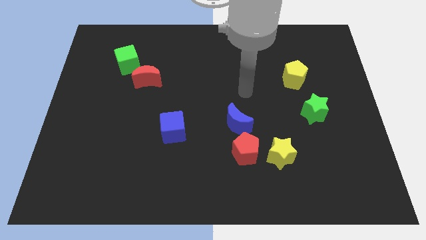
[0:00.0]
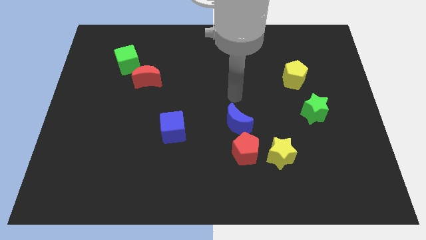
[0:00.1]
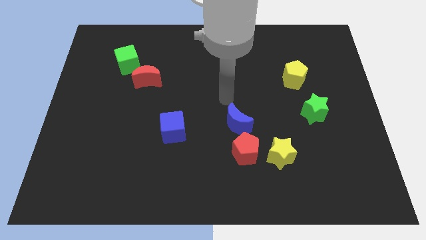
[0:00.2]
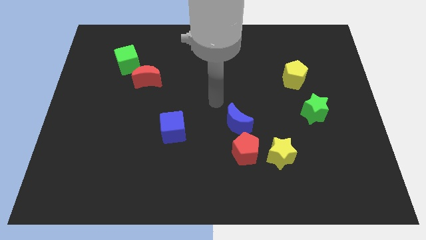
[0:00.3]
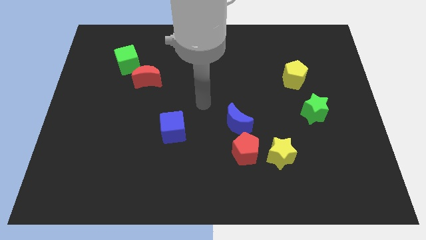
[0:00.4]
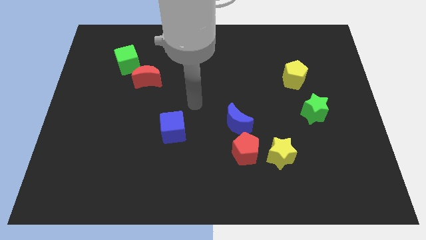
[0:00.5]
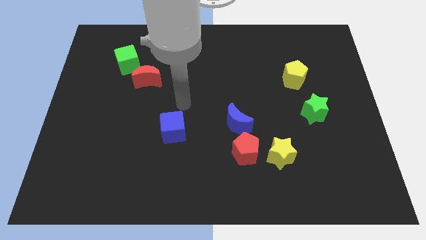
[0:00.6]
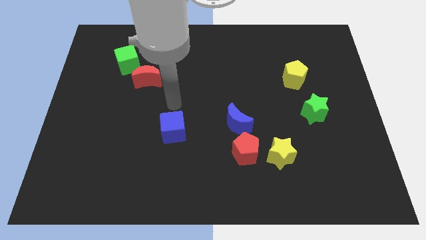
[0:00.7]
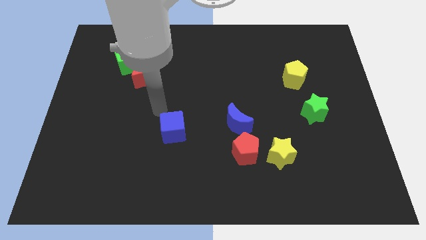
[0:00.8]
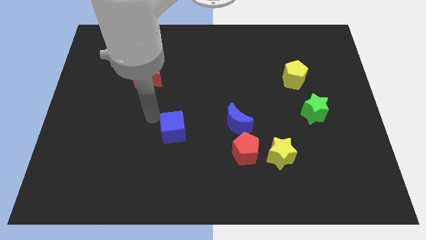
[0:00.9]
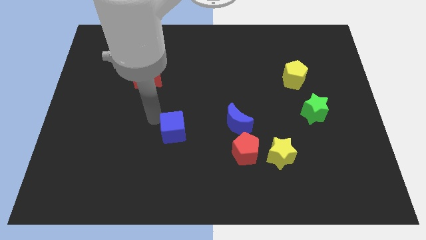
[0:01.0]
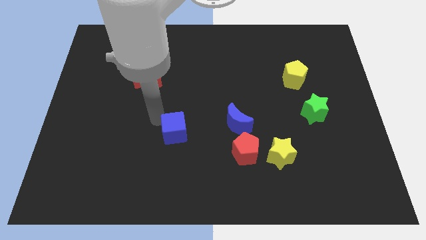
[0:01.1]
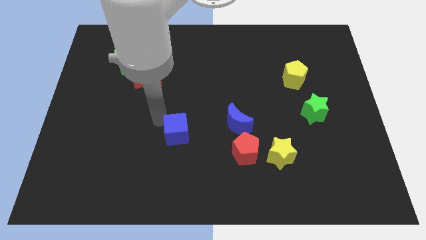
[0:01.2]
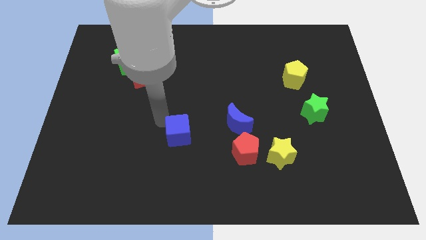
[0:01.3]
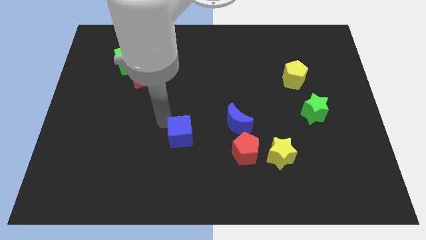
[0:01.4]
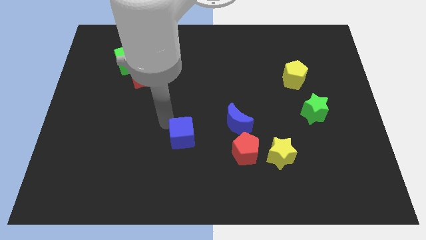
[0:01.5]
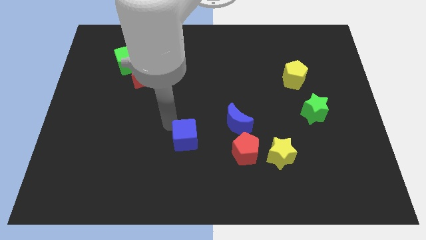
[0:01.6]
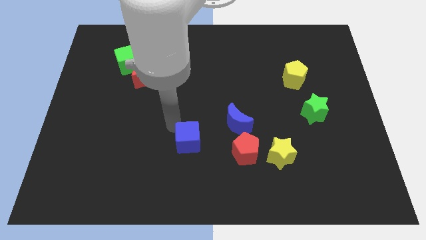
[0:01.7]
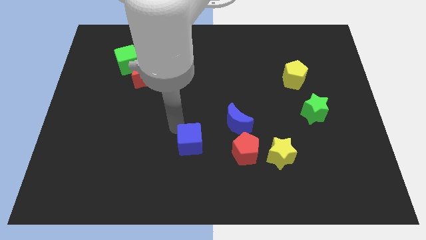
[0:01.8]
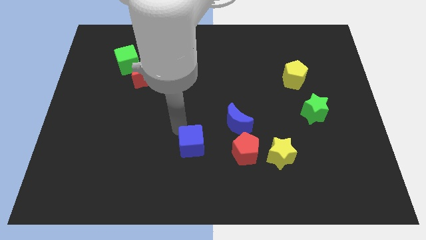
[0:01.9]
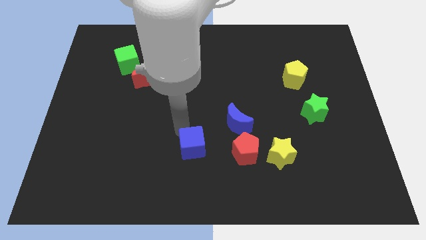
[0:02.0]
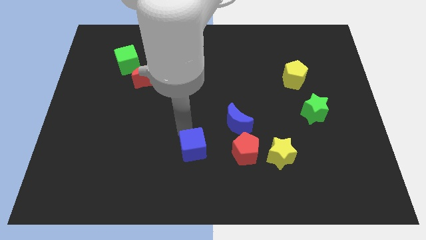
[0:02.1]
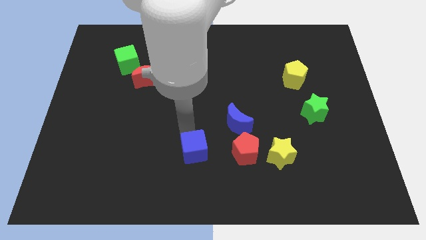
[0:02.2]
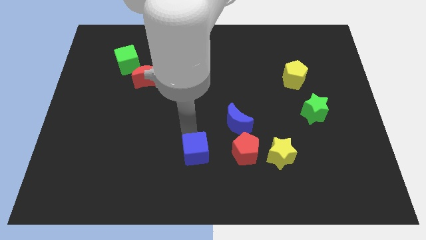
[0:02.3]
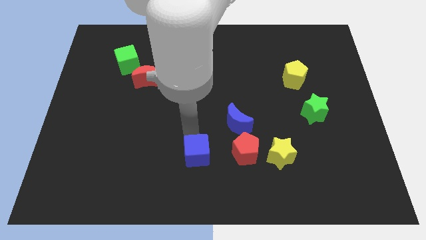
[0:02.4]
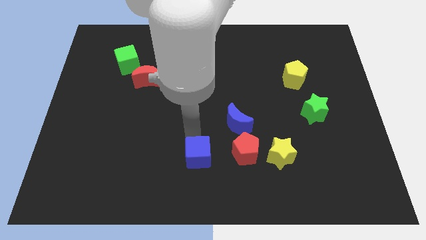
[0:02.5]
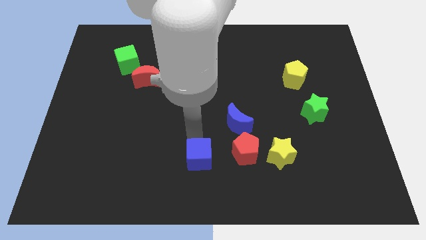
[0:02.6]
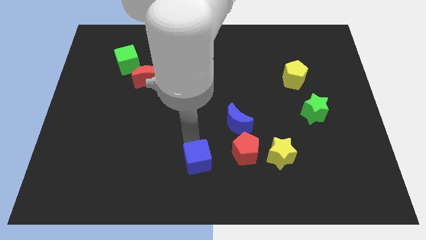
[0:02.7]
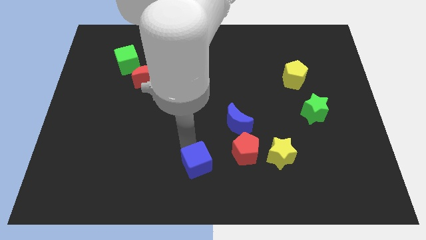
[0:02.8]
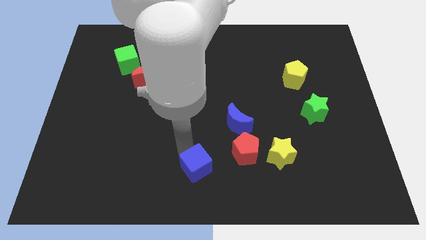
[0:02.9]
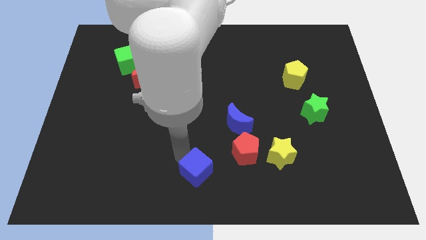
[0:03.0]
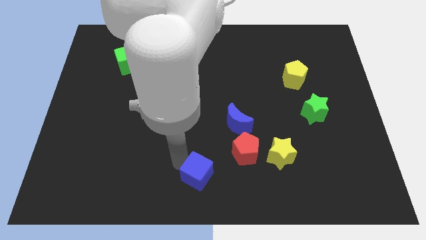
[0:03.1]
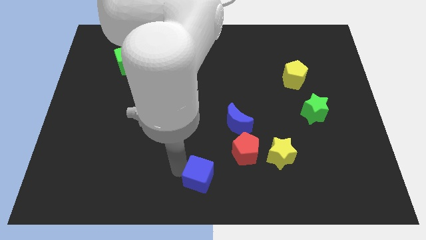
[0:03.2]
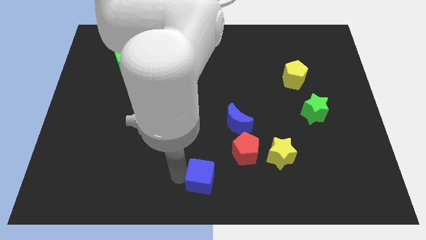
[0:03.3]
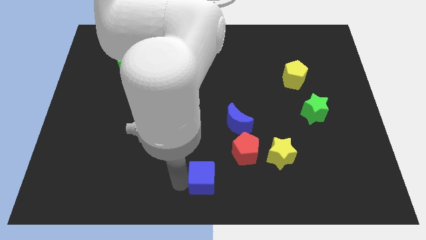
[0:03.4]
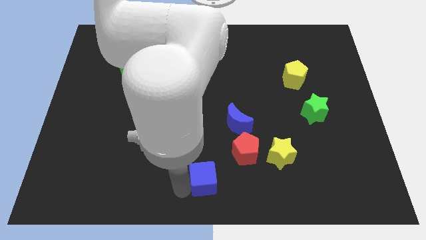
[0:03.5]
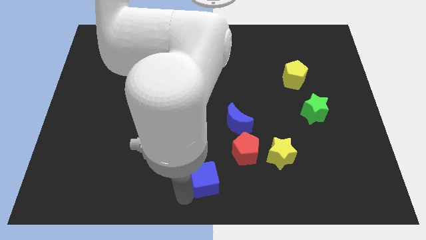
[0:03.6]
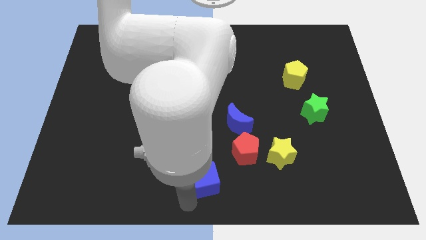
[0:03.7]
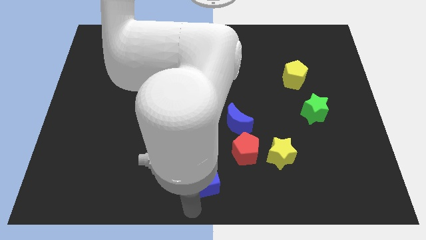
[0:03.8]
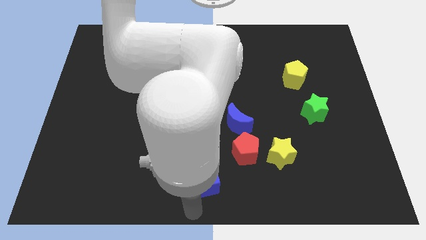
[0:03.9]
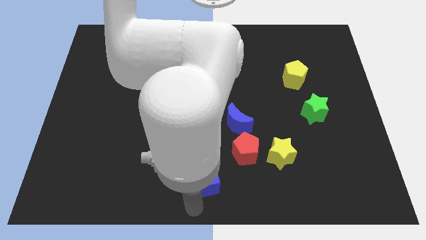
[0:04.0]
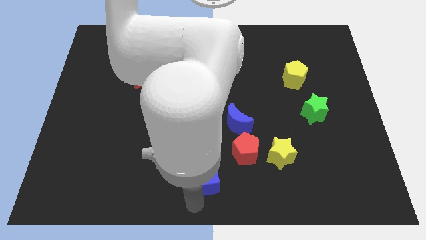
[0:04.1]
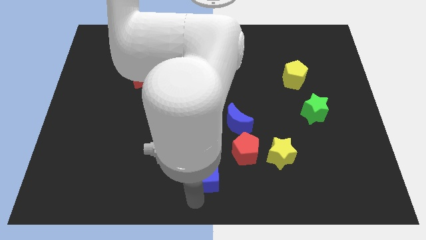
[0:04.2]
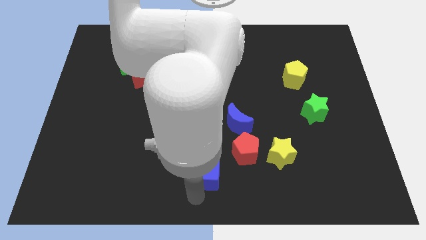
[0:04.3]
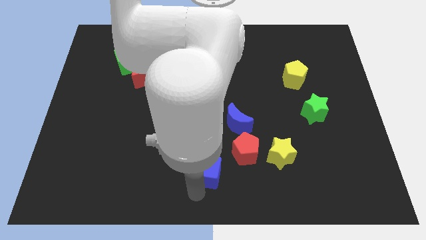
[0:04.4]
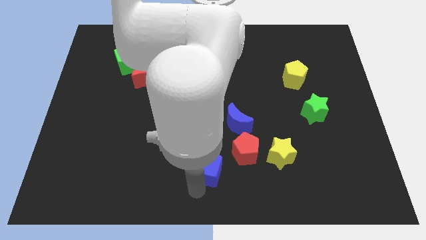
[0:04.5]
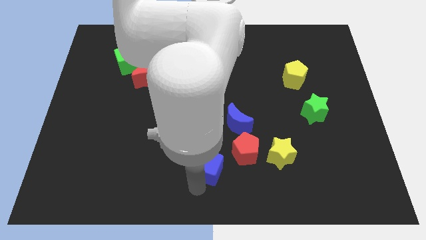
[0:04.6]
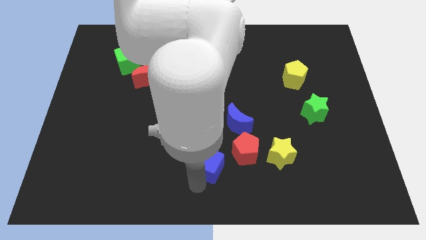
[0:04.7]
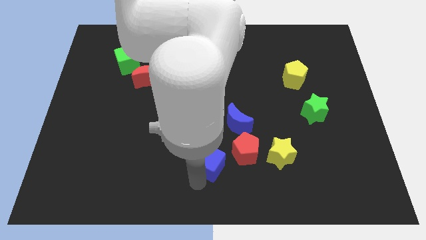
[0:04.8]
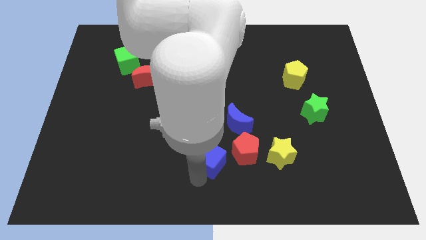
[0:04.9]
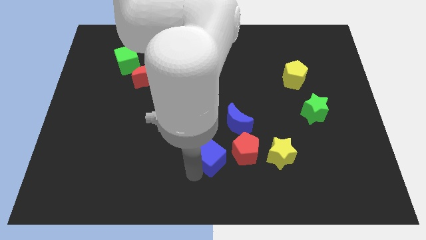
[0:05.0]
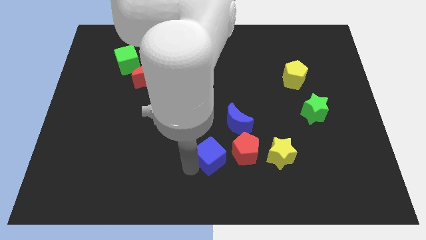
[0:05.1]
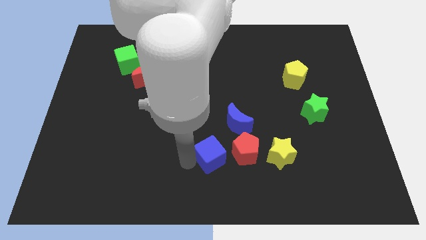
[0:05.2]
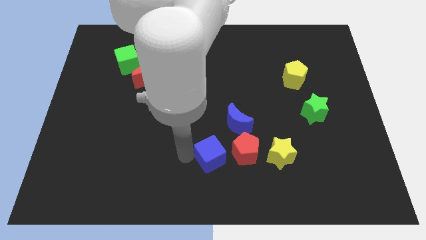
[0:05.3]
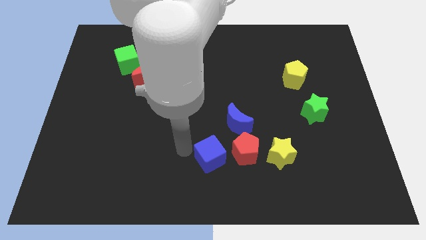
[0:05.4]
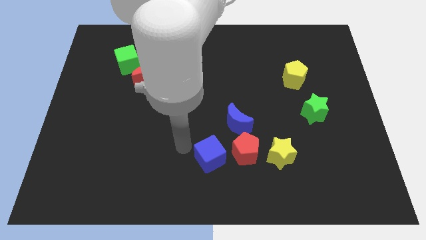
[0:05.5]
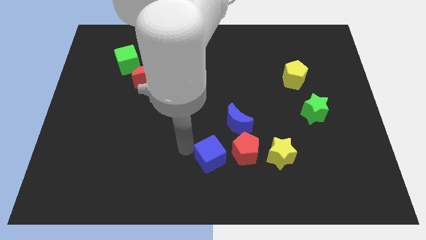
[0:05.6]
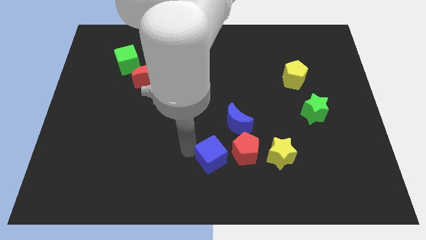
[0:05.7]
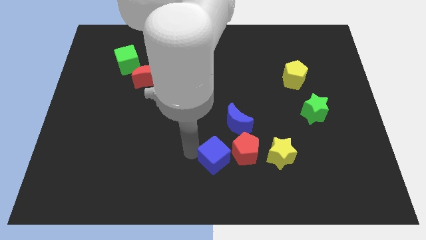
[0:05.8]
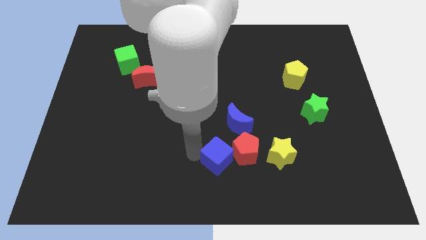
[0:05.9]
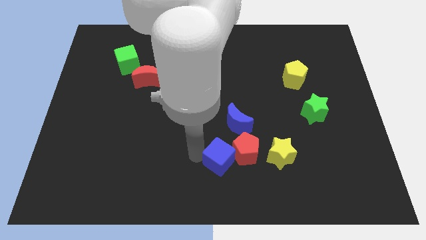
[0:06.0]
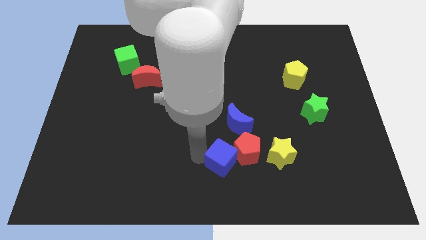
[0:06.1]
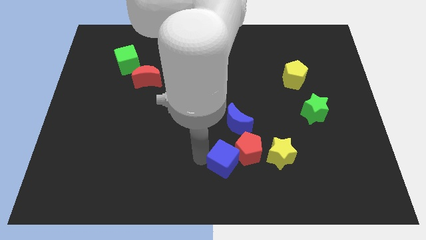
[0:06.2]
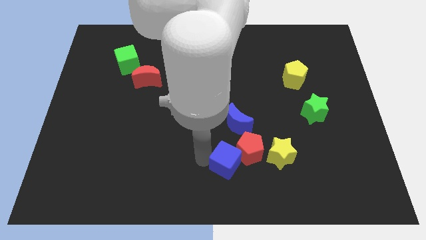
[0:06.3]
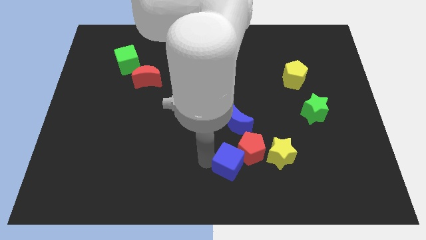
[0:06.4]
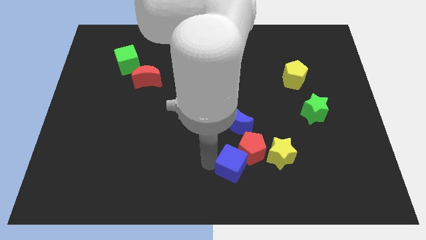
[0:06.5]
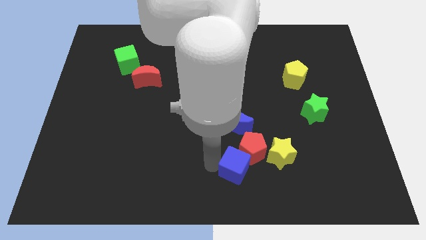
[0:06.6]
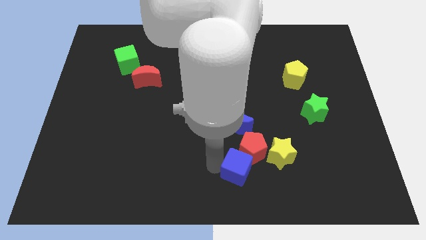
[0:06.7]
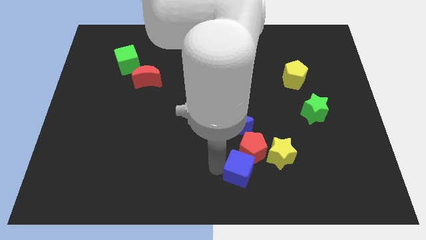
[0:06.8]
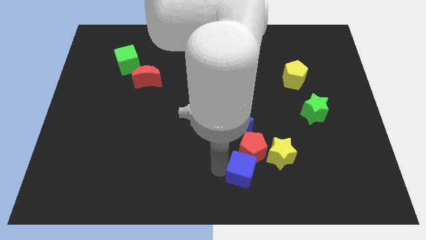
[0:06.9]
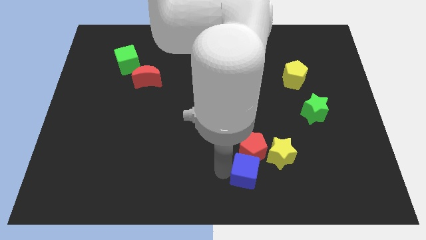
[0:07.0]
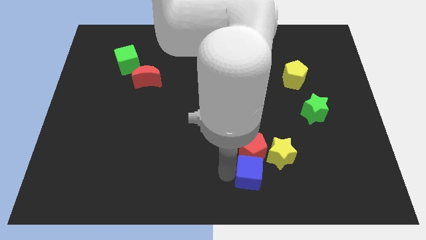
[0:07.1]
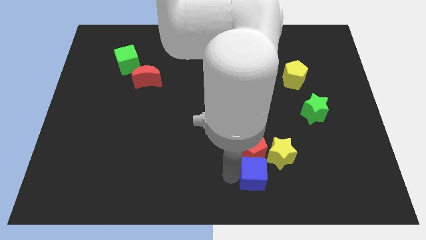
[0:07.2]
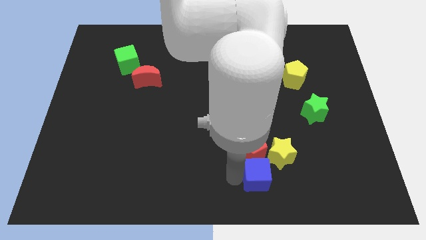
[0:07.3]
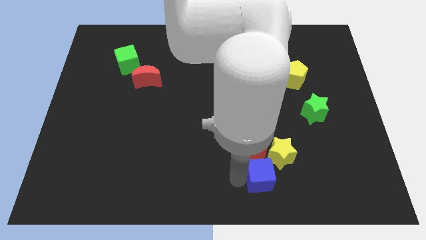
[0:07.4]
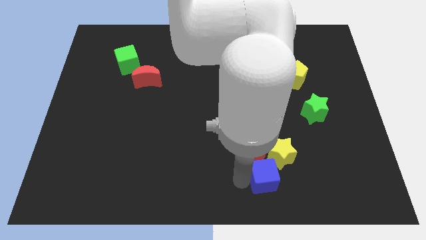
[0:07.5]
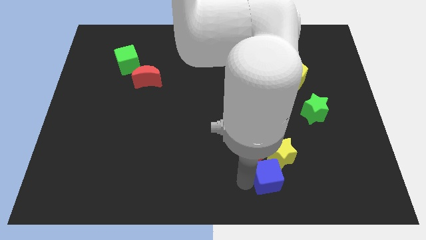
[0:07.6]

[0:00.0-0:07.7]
put the blue cube towards the yellow star
